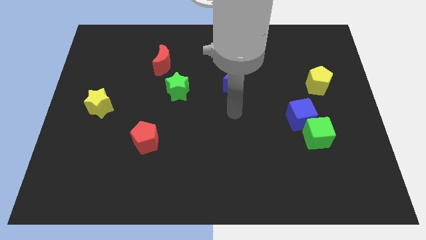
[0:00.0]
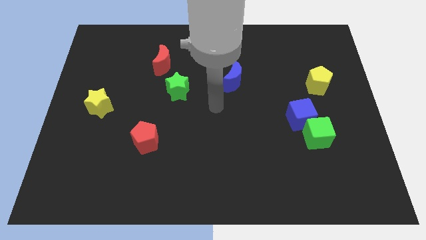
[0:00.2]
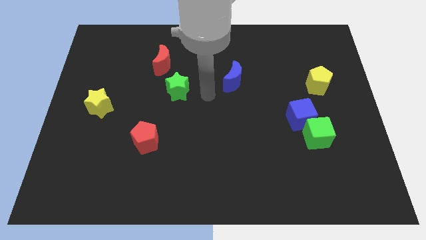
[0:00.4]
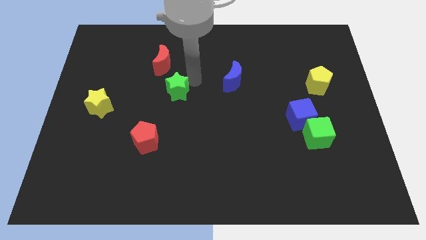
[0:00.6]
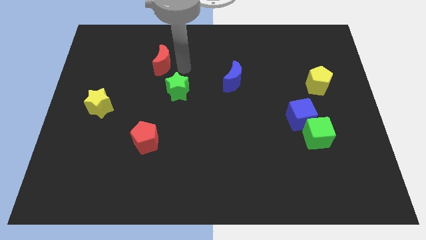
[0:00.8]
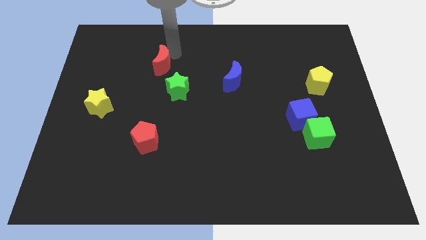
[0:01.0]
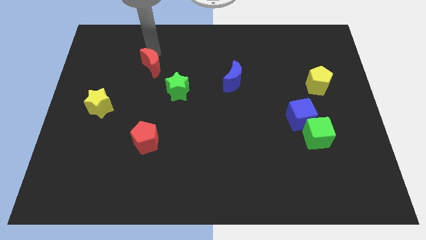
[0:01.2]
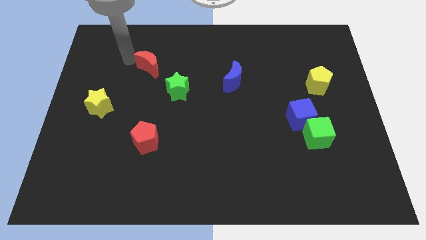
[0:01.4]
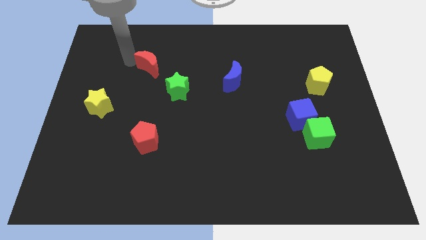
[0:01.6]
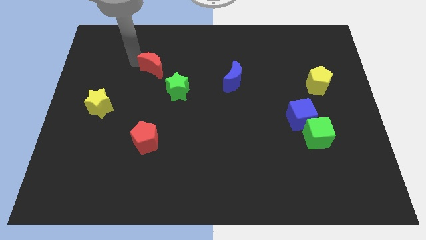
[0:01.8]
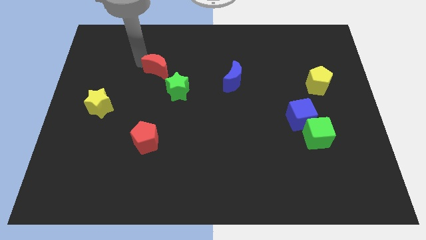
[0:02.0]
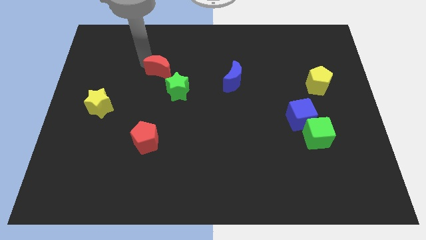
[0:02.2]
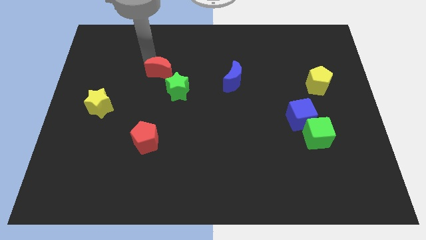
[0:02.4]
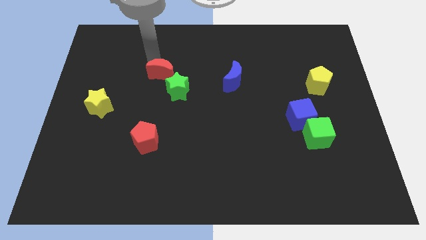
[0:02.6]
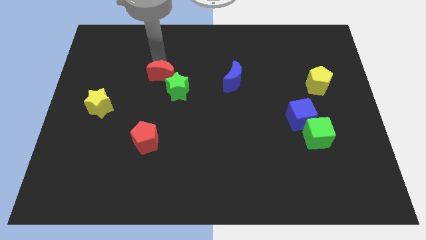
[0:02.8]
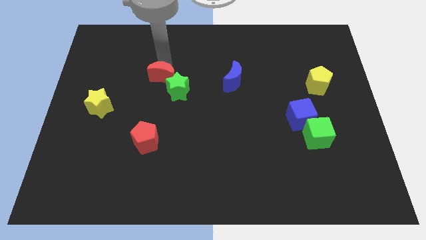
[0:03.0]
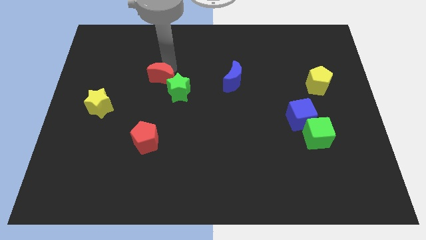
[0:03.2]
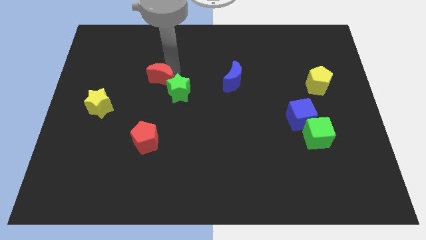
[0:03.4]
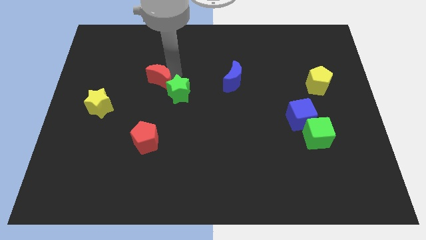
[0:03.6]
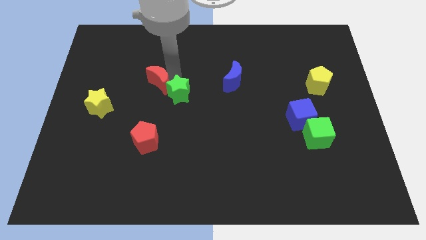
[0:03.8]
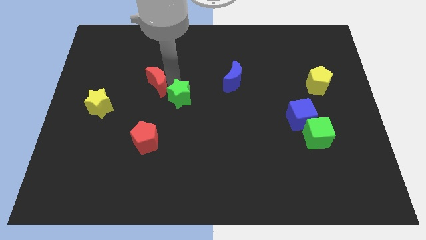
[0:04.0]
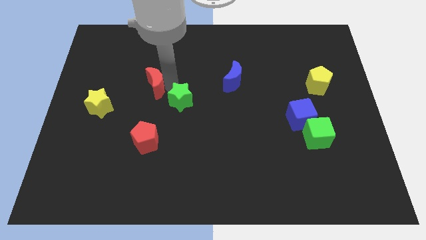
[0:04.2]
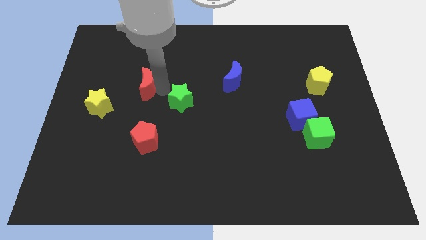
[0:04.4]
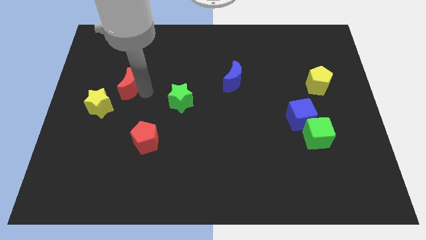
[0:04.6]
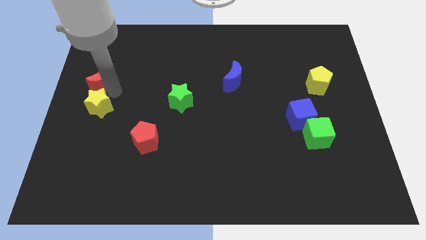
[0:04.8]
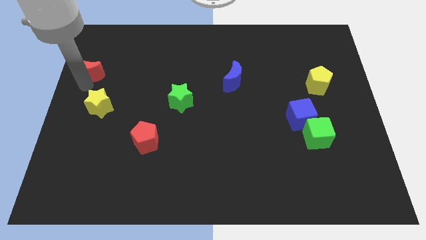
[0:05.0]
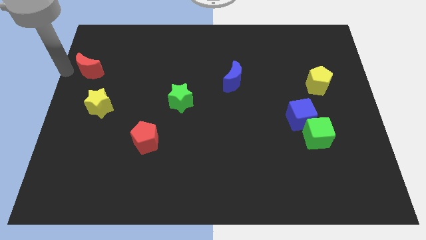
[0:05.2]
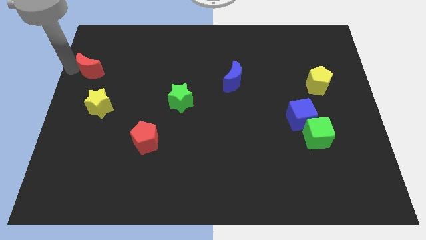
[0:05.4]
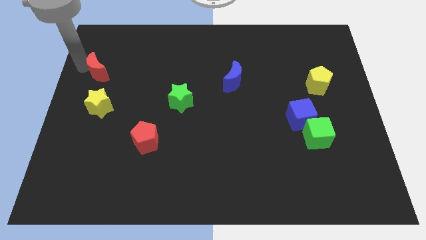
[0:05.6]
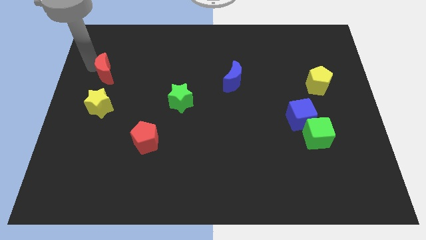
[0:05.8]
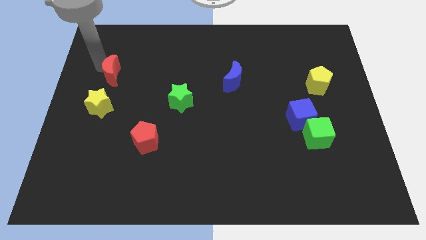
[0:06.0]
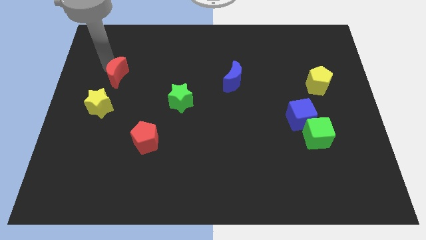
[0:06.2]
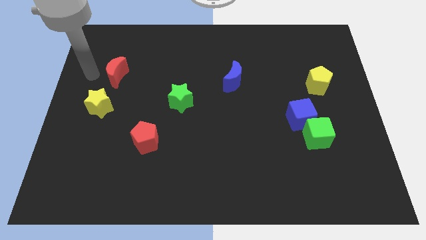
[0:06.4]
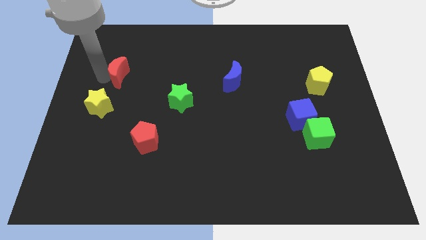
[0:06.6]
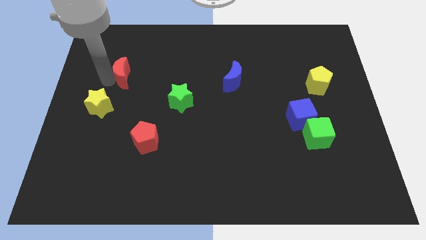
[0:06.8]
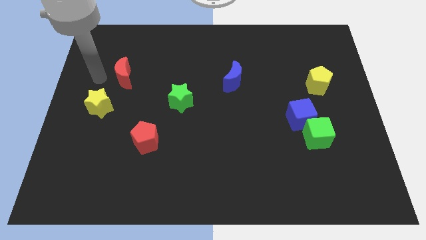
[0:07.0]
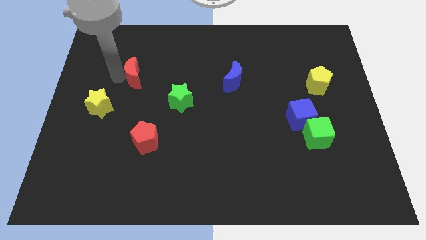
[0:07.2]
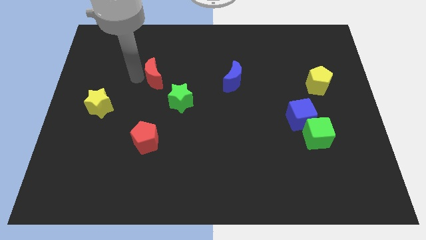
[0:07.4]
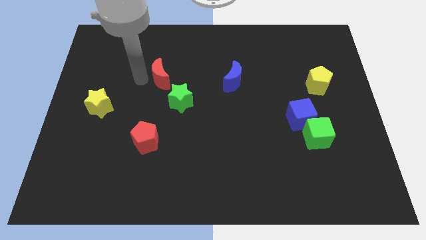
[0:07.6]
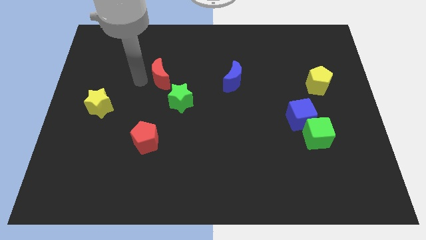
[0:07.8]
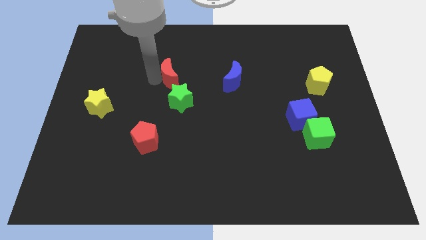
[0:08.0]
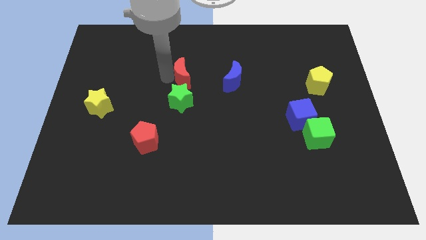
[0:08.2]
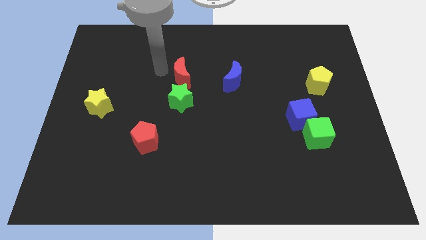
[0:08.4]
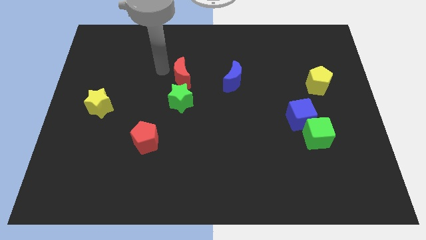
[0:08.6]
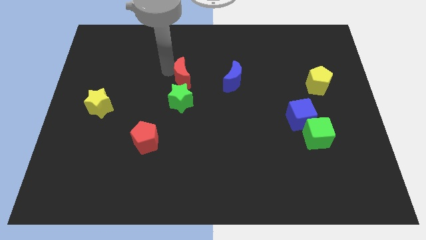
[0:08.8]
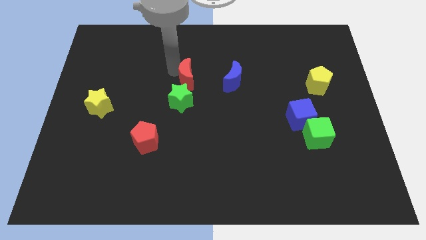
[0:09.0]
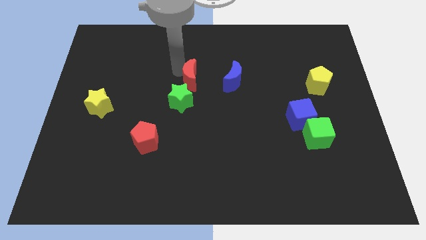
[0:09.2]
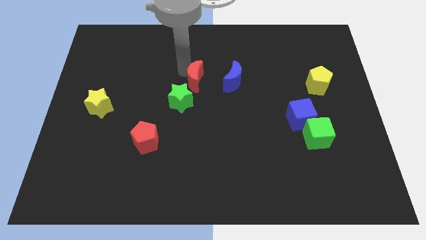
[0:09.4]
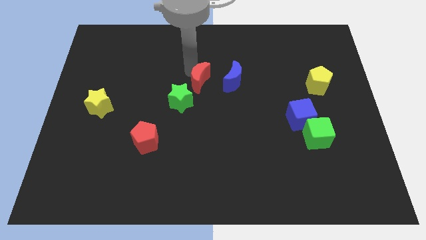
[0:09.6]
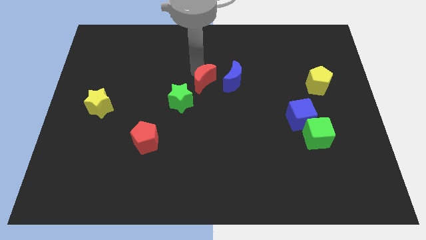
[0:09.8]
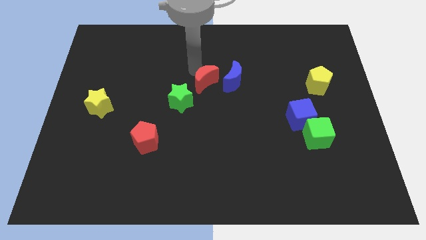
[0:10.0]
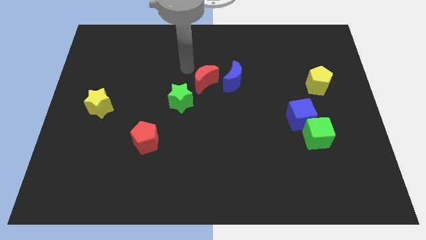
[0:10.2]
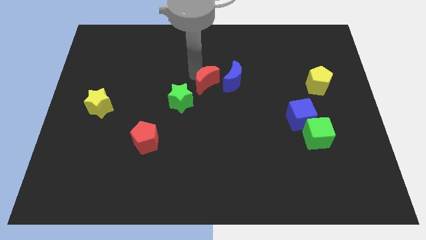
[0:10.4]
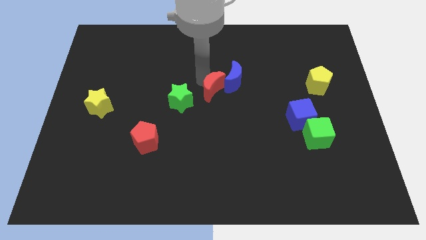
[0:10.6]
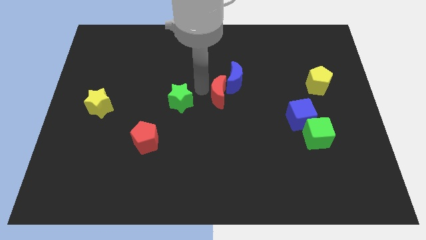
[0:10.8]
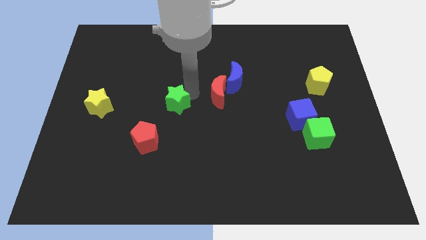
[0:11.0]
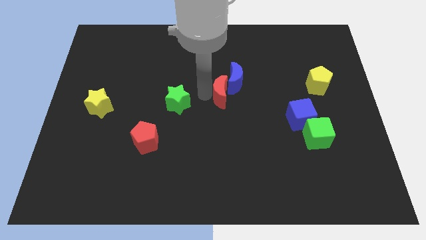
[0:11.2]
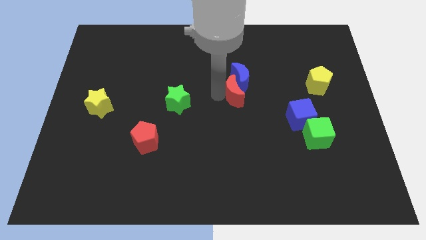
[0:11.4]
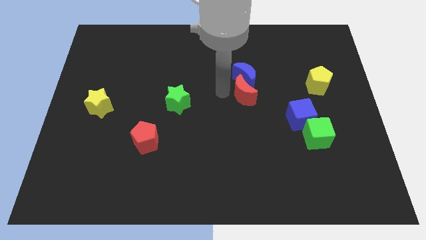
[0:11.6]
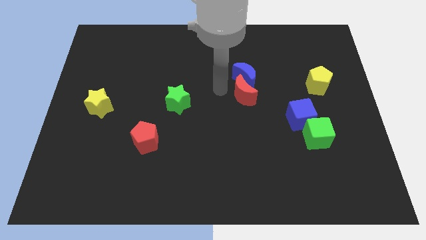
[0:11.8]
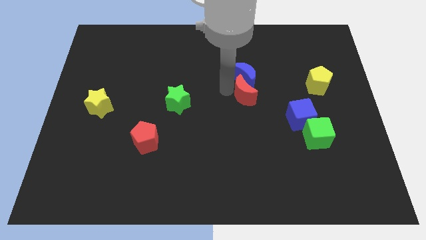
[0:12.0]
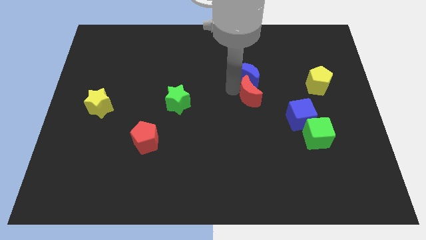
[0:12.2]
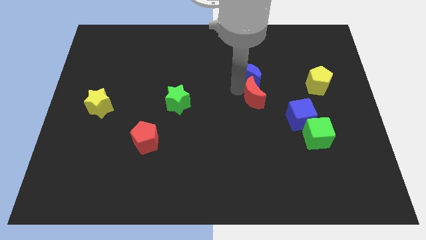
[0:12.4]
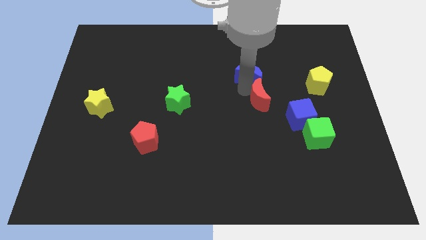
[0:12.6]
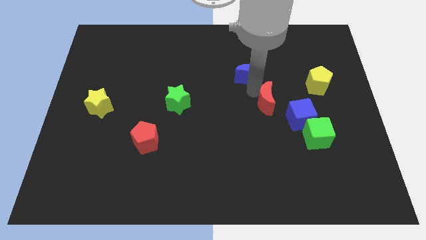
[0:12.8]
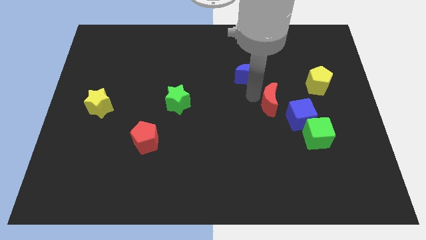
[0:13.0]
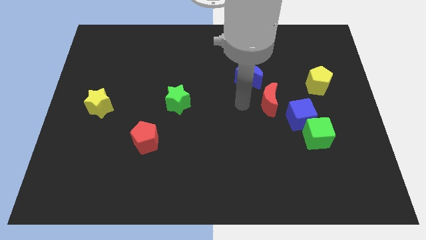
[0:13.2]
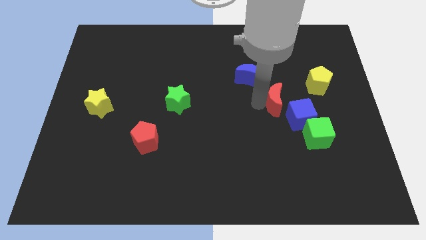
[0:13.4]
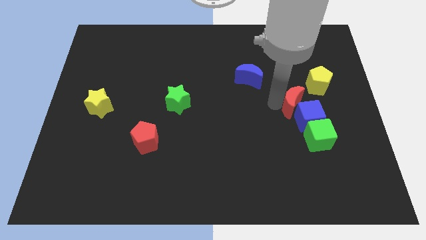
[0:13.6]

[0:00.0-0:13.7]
put the red moon above the green cube

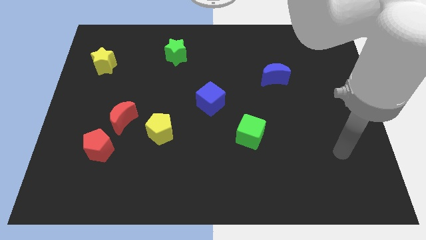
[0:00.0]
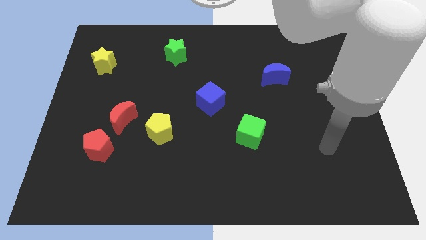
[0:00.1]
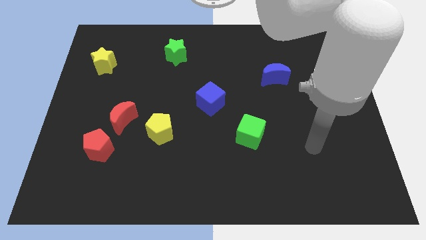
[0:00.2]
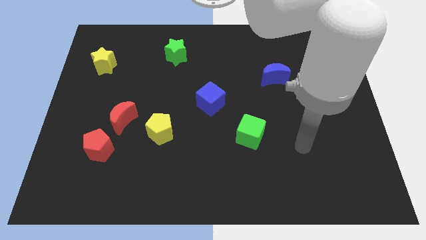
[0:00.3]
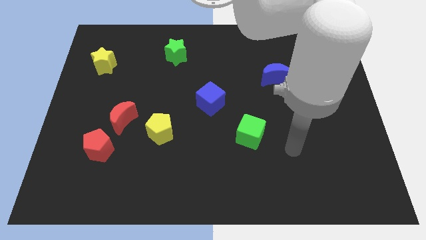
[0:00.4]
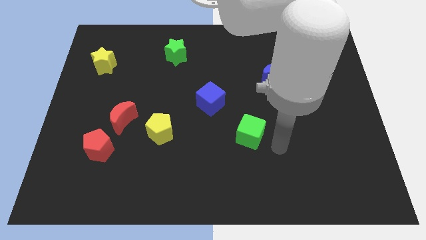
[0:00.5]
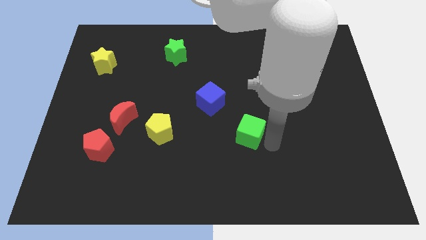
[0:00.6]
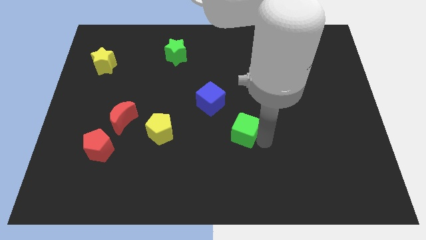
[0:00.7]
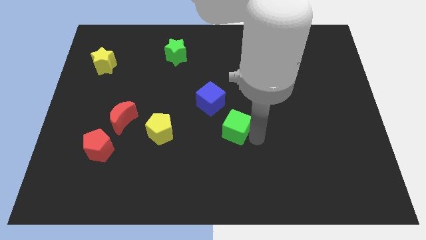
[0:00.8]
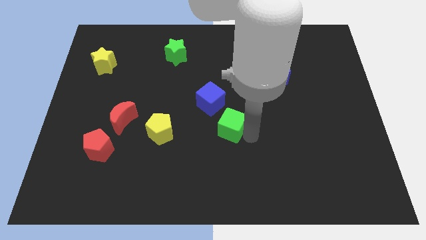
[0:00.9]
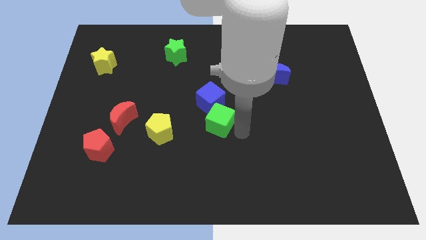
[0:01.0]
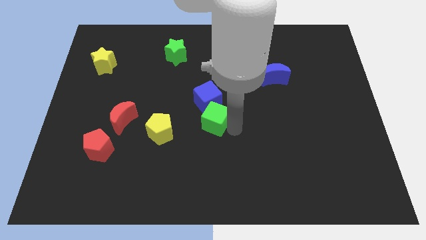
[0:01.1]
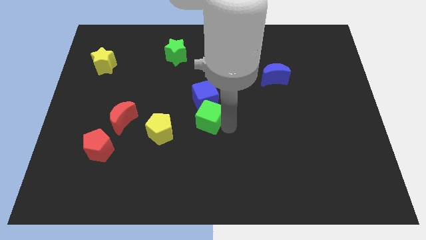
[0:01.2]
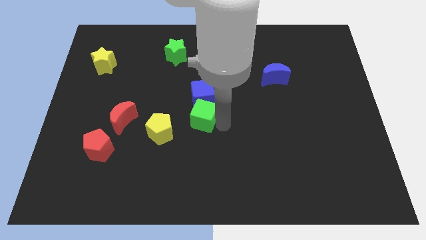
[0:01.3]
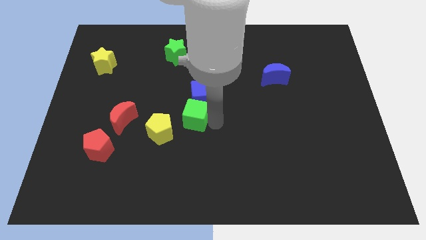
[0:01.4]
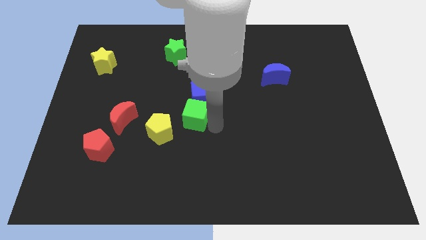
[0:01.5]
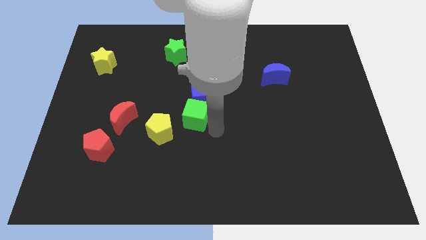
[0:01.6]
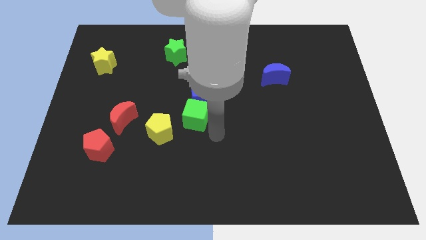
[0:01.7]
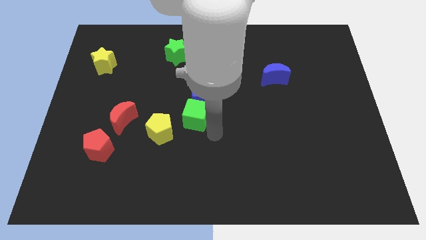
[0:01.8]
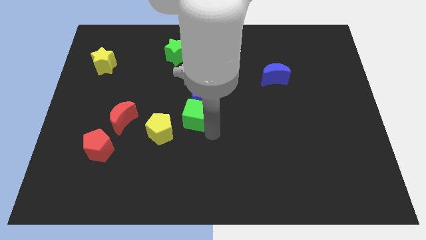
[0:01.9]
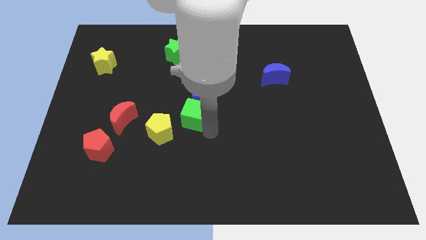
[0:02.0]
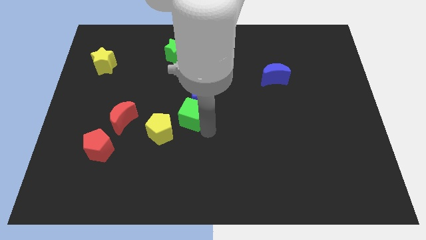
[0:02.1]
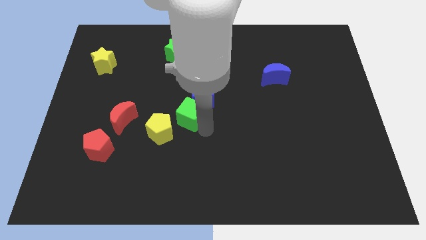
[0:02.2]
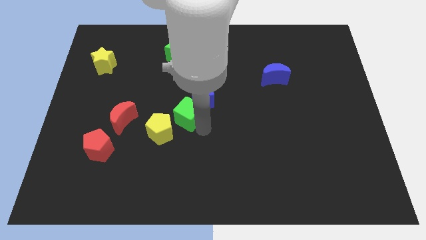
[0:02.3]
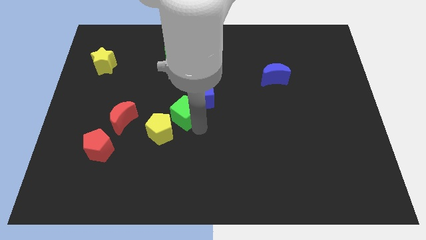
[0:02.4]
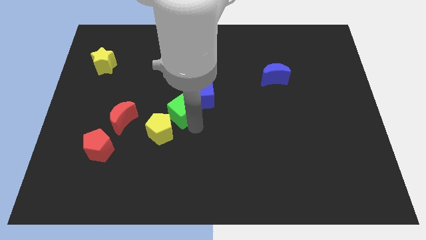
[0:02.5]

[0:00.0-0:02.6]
slide the green cube to the left of the blue cube
